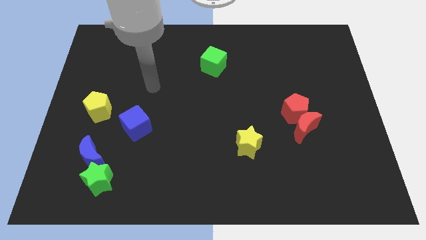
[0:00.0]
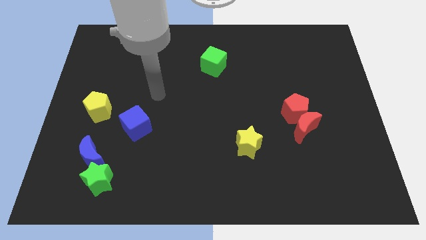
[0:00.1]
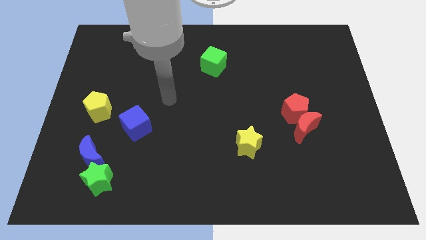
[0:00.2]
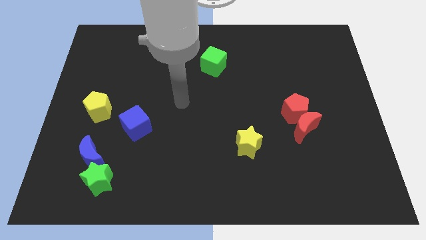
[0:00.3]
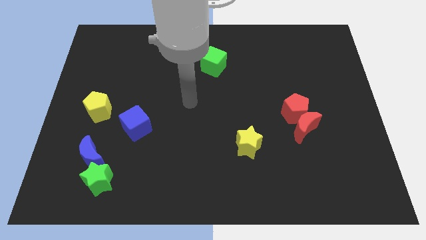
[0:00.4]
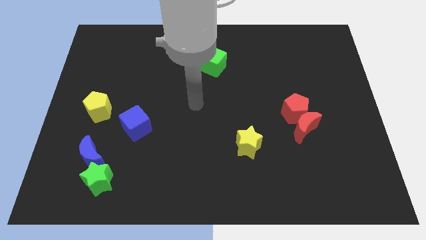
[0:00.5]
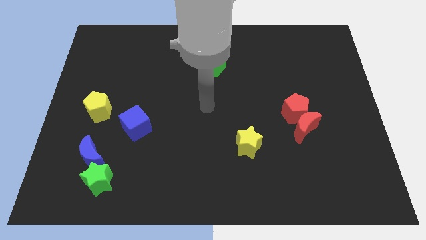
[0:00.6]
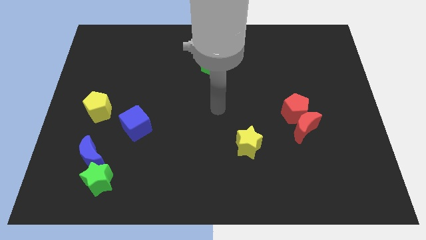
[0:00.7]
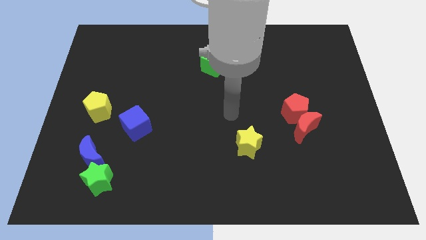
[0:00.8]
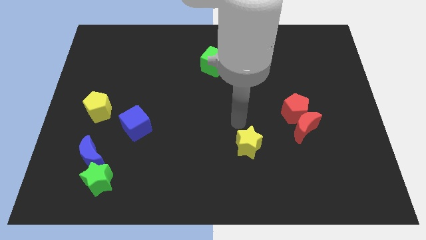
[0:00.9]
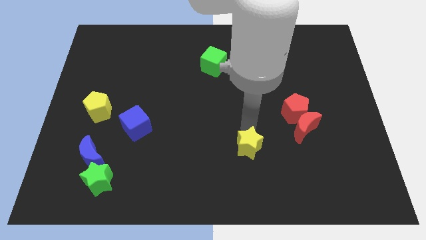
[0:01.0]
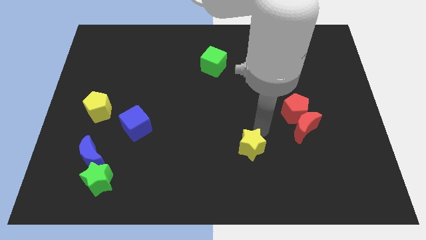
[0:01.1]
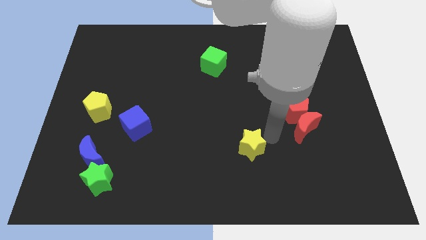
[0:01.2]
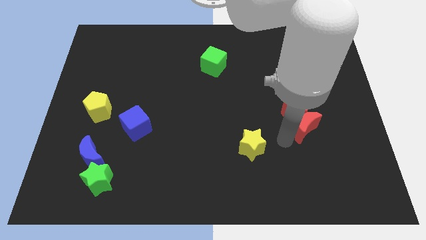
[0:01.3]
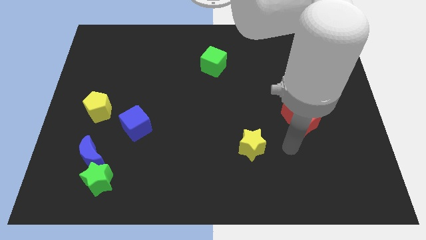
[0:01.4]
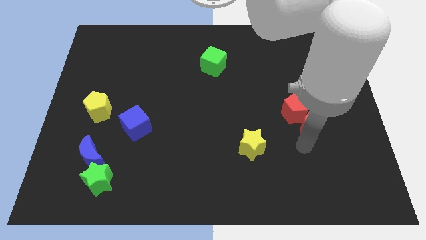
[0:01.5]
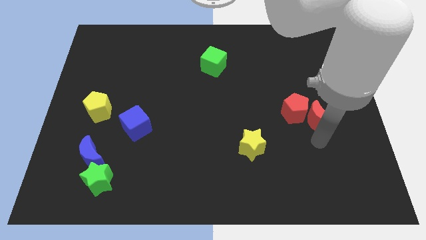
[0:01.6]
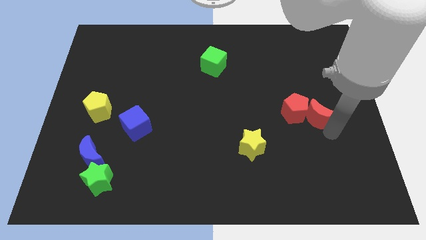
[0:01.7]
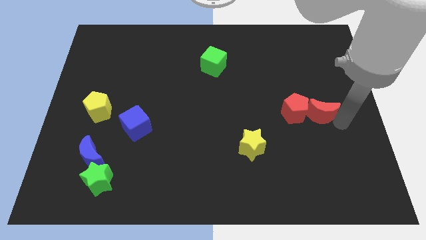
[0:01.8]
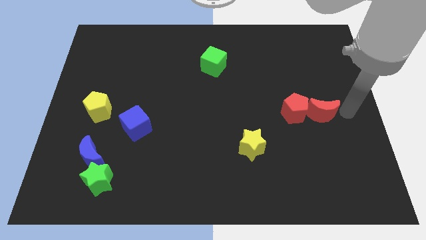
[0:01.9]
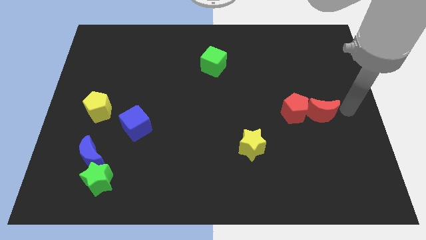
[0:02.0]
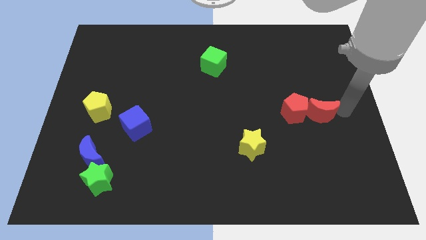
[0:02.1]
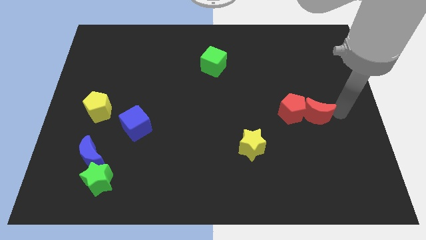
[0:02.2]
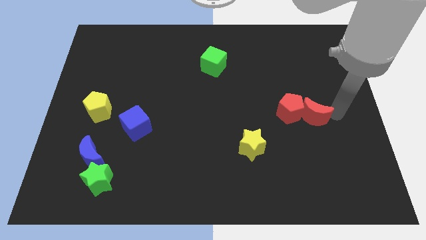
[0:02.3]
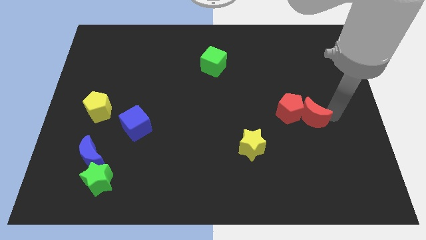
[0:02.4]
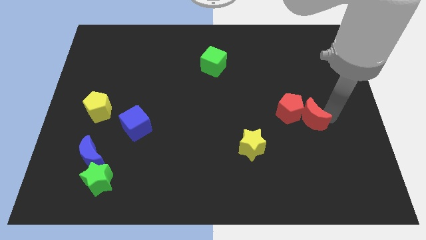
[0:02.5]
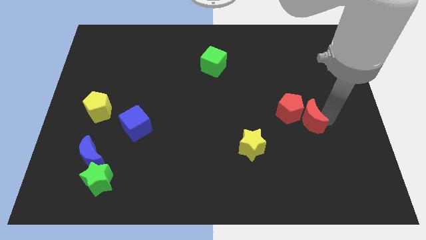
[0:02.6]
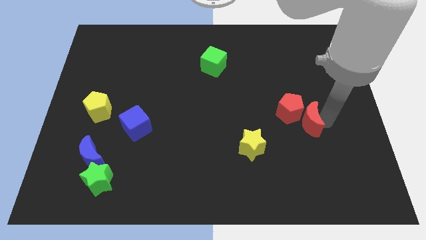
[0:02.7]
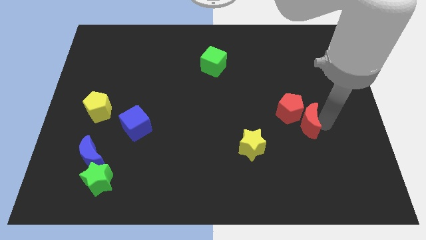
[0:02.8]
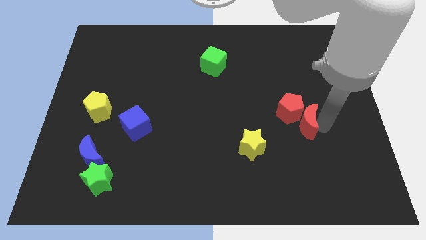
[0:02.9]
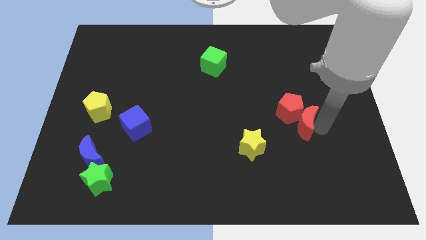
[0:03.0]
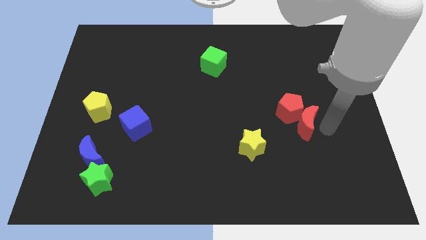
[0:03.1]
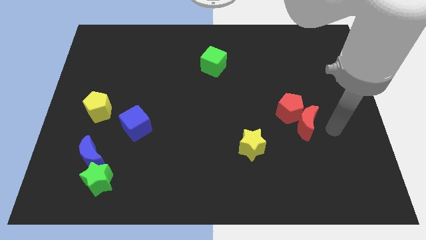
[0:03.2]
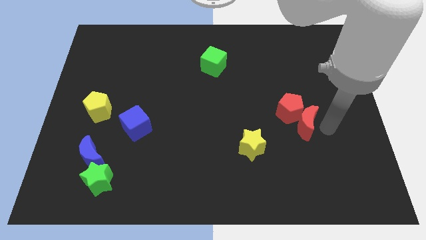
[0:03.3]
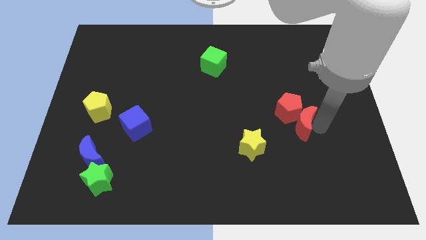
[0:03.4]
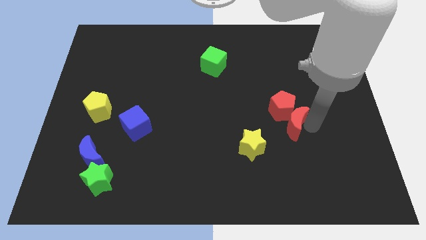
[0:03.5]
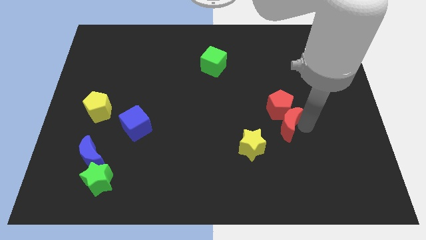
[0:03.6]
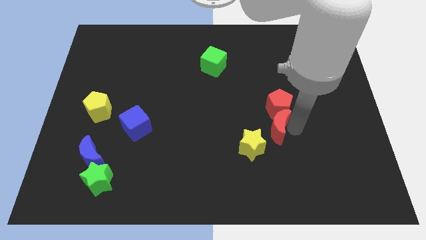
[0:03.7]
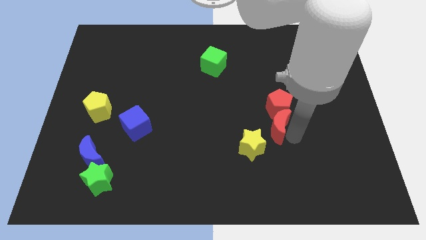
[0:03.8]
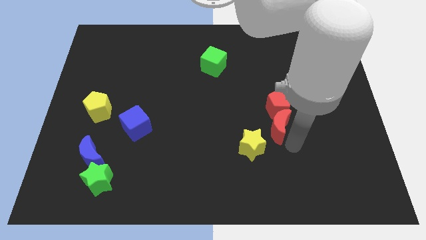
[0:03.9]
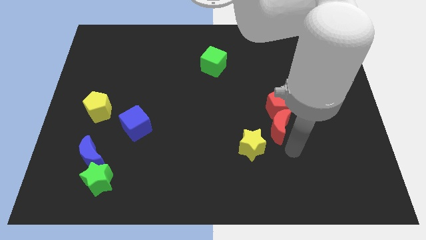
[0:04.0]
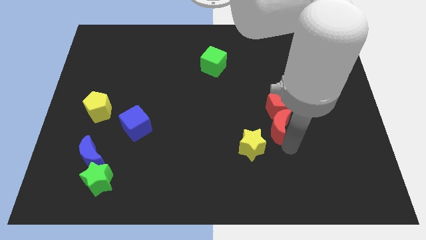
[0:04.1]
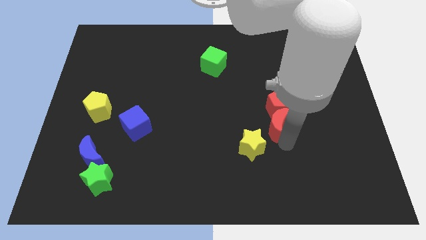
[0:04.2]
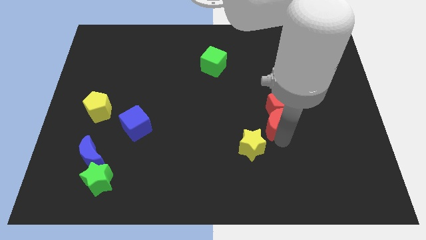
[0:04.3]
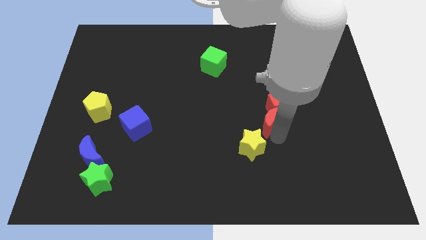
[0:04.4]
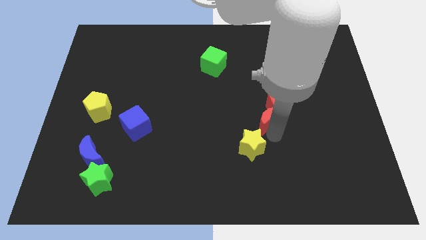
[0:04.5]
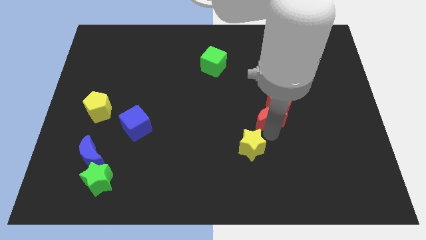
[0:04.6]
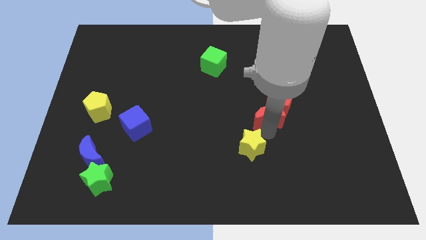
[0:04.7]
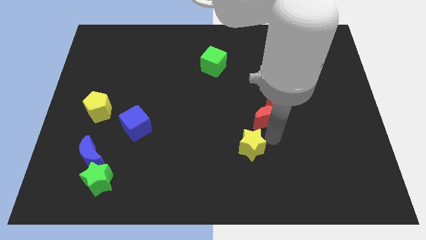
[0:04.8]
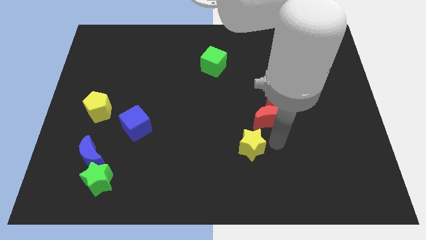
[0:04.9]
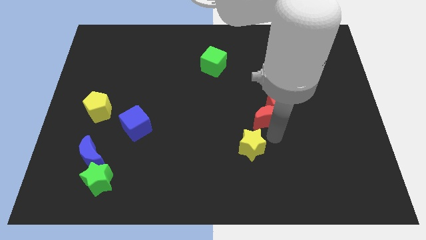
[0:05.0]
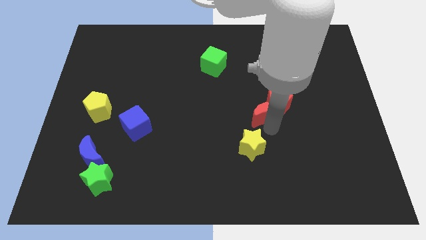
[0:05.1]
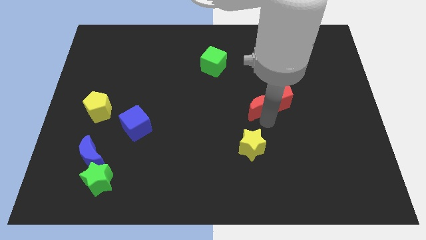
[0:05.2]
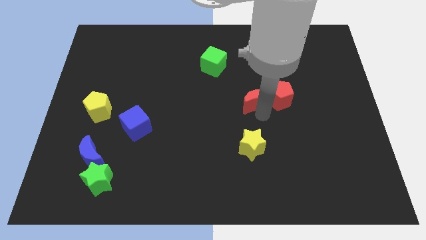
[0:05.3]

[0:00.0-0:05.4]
put the red moon to the top left of the red pentagon

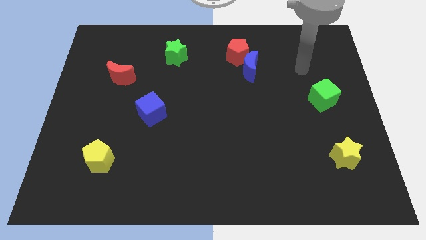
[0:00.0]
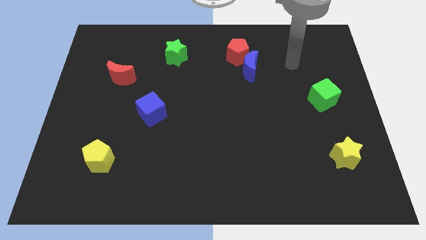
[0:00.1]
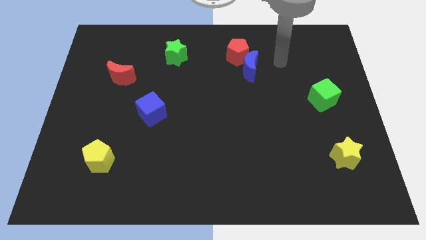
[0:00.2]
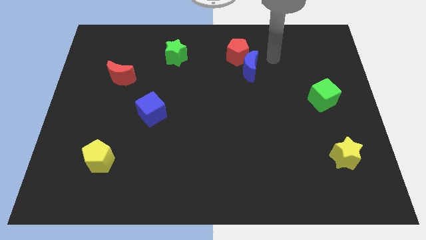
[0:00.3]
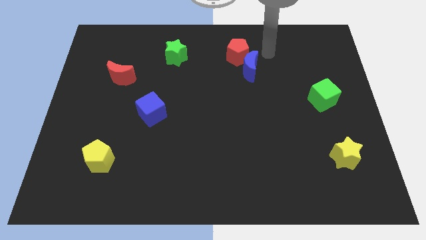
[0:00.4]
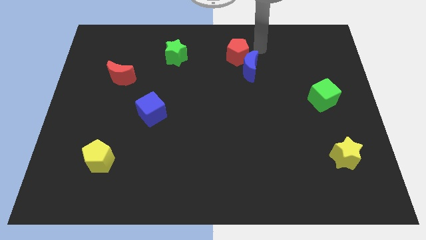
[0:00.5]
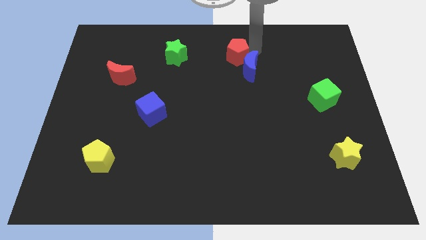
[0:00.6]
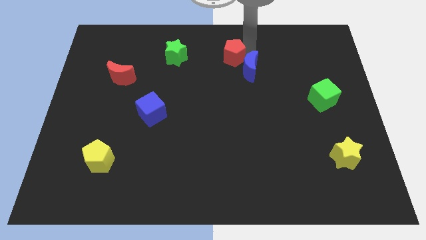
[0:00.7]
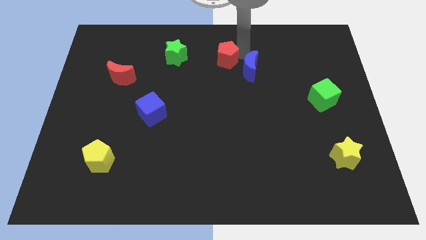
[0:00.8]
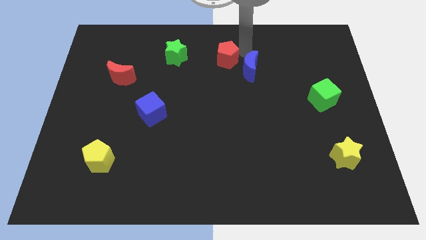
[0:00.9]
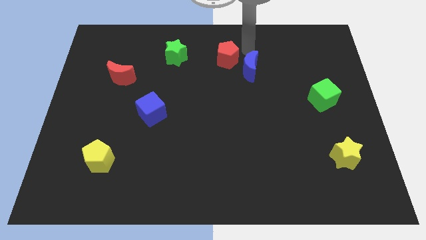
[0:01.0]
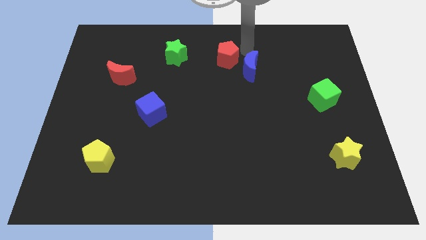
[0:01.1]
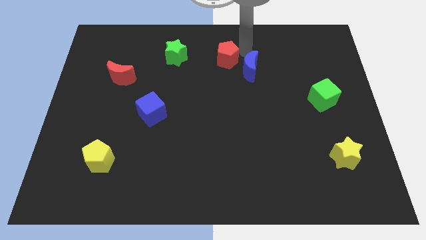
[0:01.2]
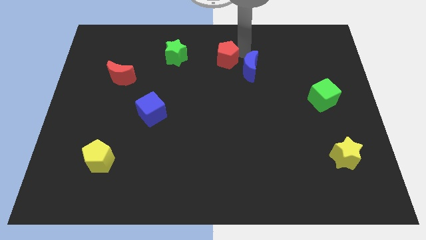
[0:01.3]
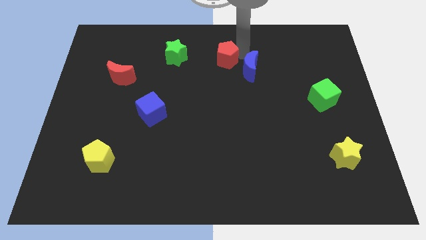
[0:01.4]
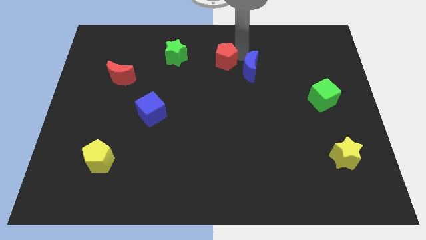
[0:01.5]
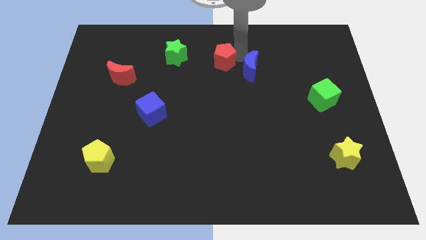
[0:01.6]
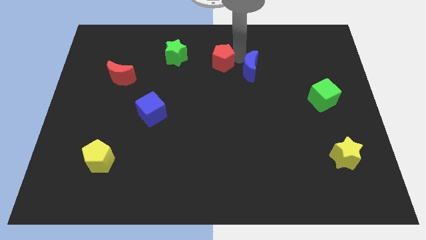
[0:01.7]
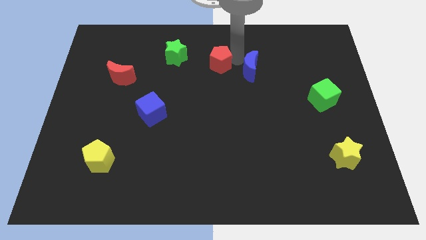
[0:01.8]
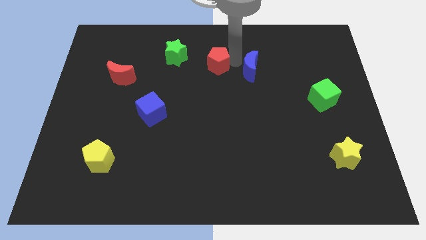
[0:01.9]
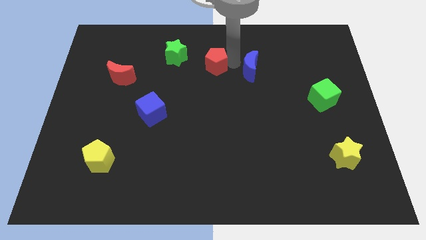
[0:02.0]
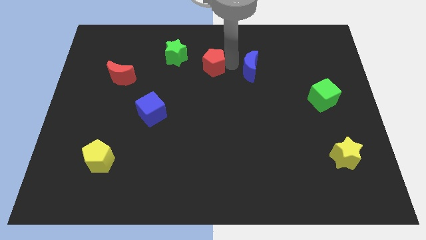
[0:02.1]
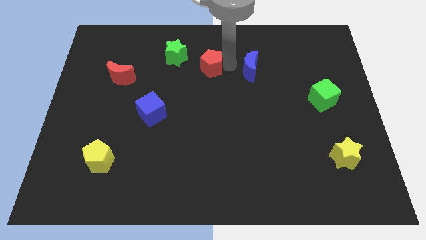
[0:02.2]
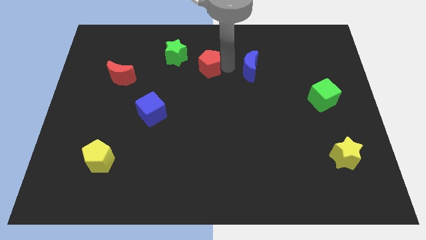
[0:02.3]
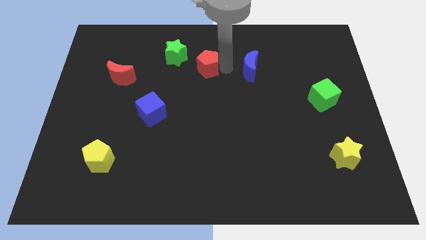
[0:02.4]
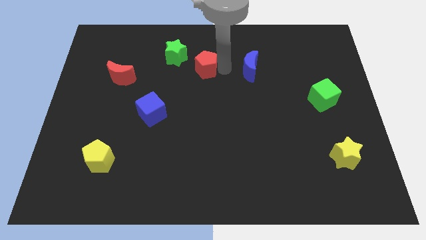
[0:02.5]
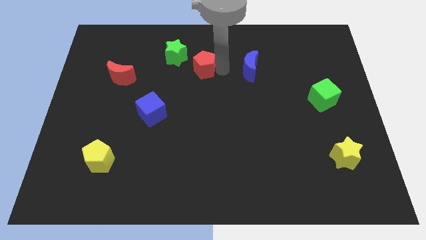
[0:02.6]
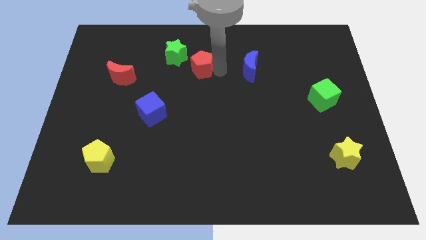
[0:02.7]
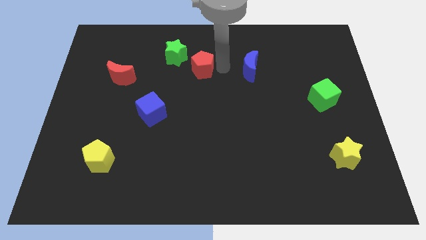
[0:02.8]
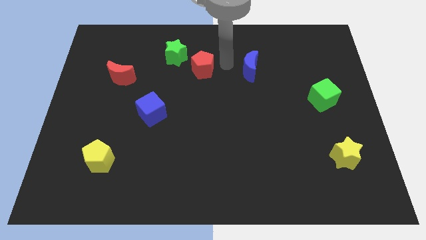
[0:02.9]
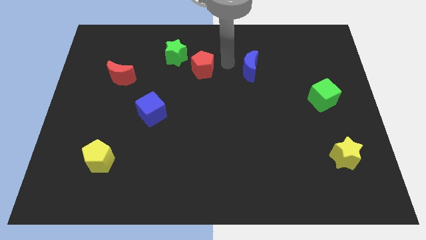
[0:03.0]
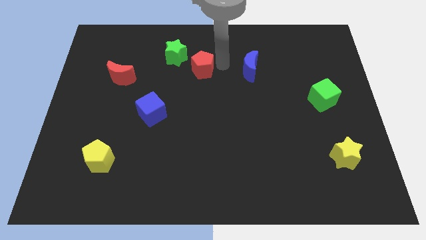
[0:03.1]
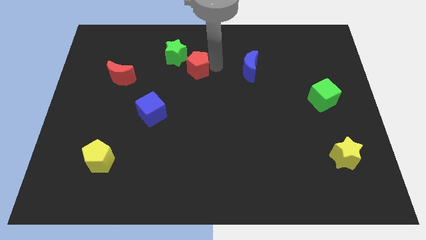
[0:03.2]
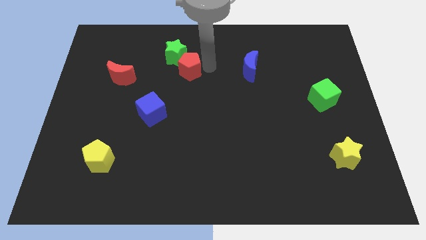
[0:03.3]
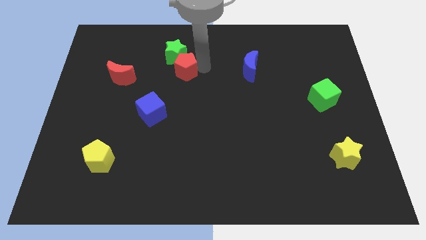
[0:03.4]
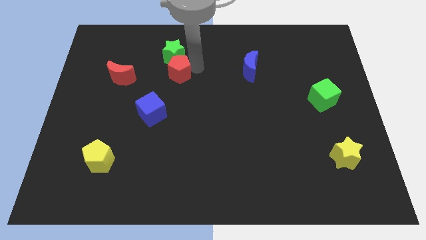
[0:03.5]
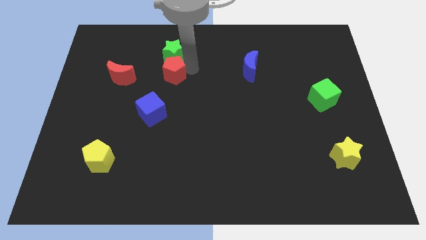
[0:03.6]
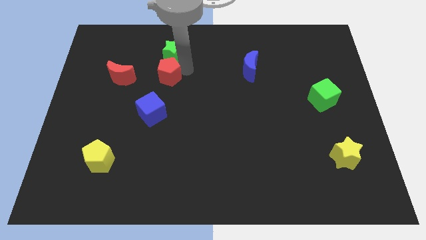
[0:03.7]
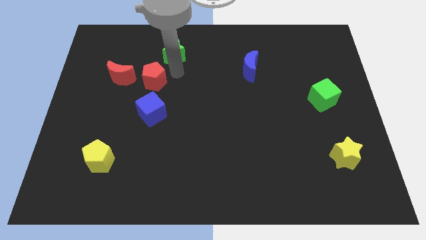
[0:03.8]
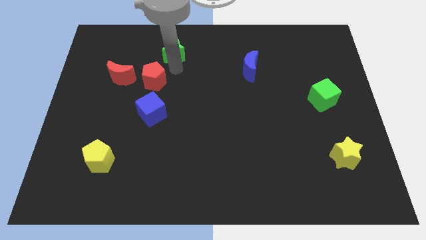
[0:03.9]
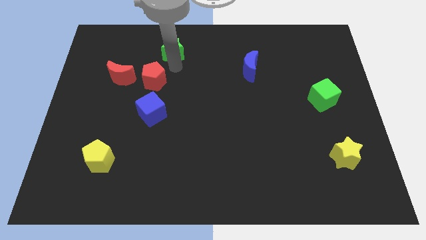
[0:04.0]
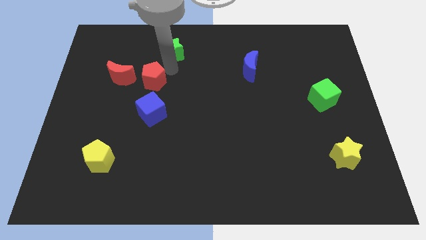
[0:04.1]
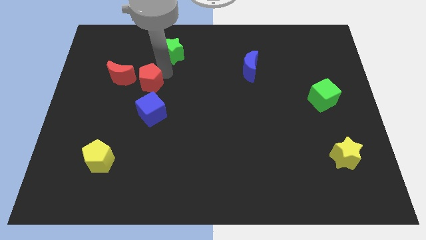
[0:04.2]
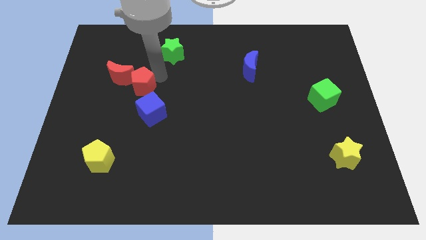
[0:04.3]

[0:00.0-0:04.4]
move the red pentagon to the top left of the blue cube
